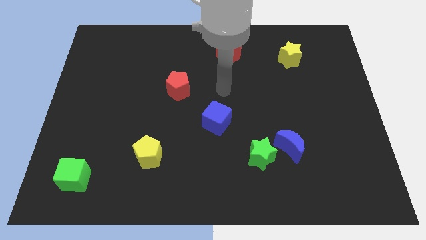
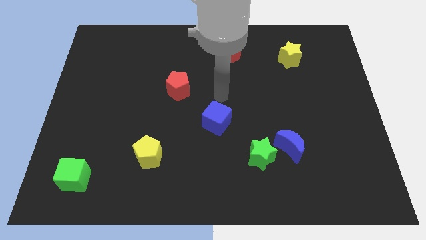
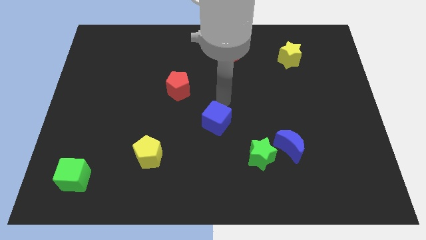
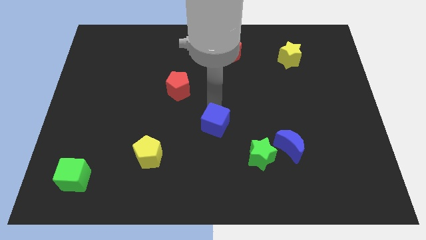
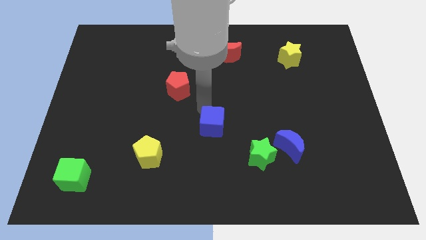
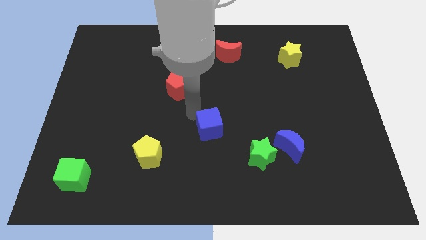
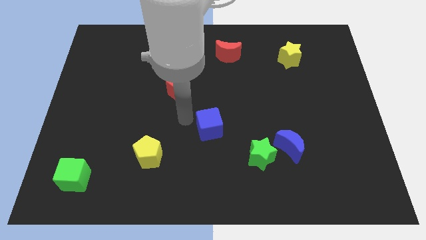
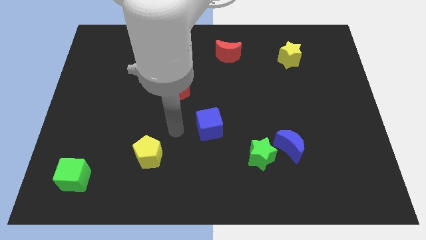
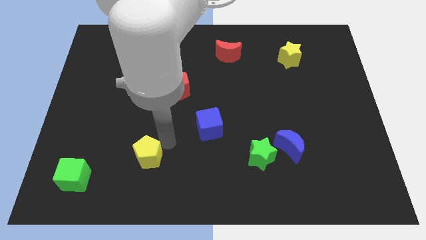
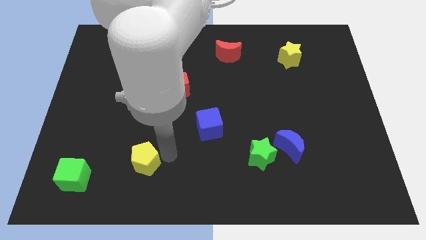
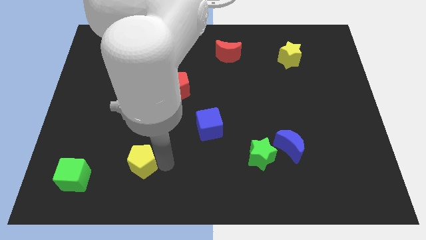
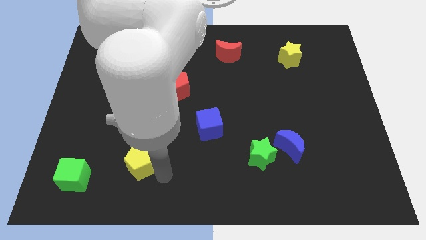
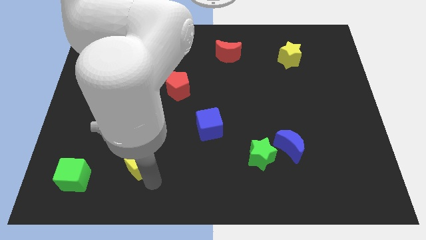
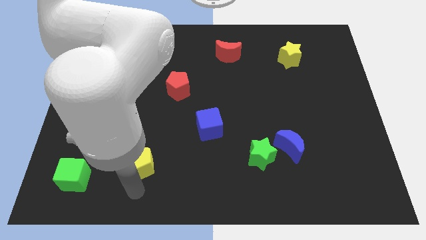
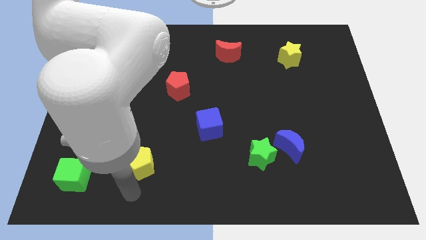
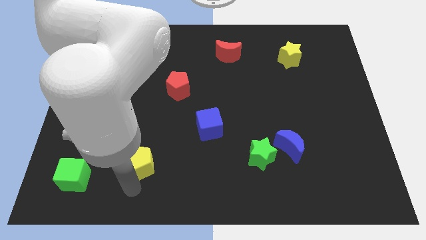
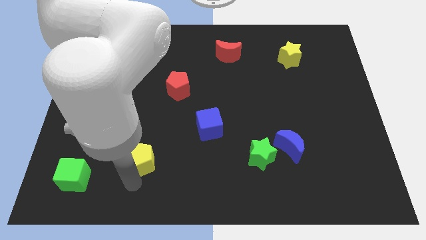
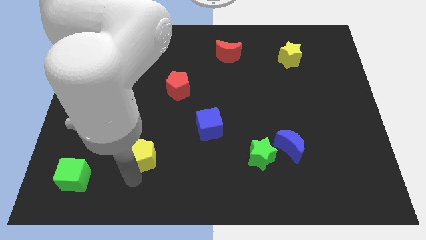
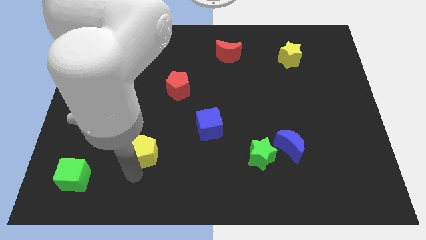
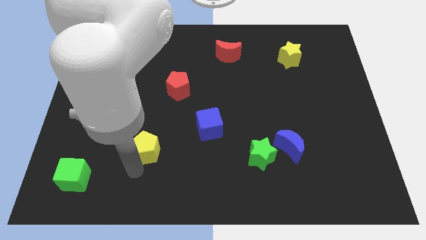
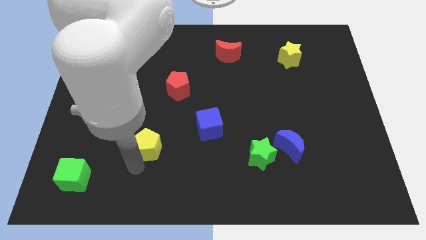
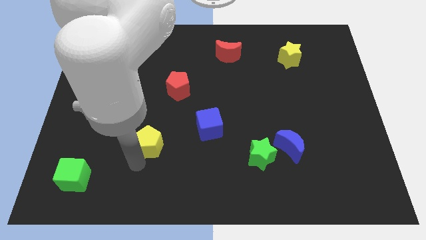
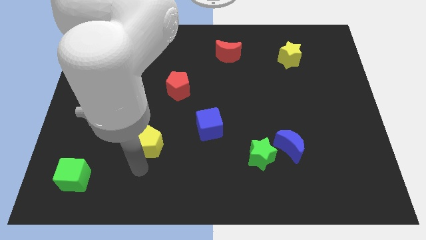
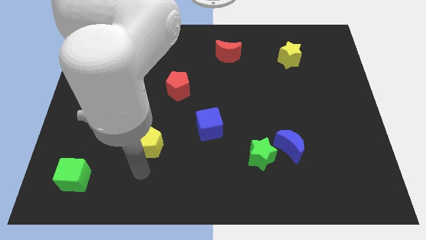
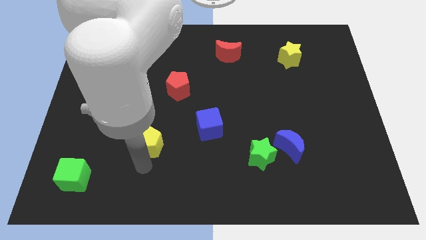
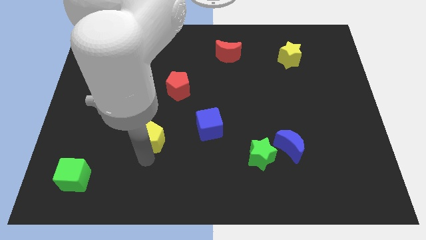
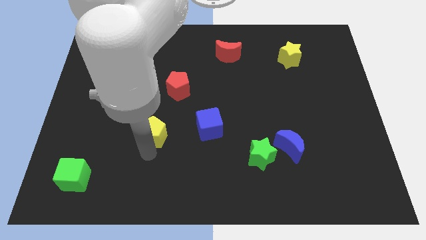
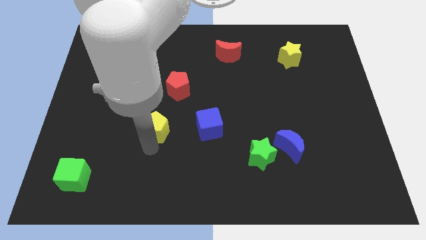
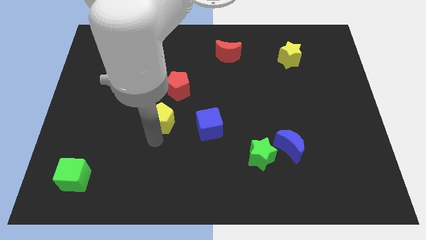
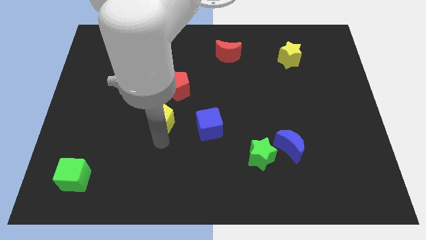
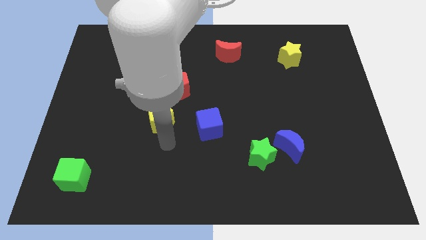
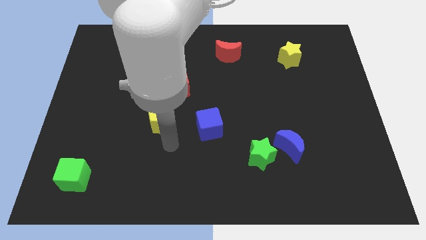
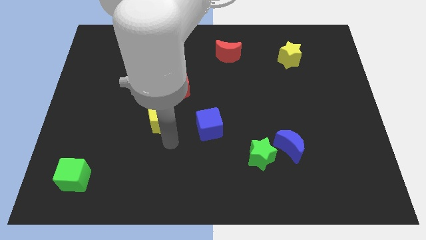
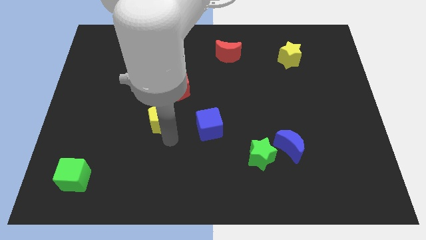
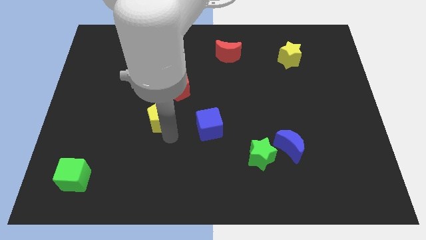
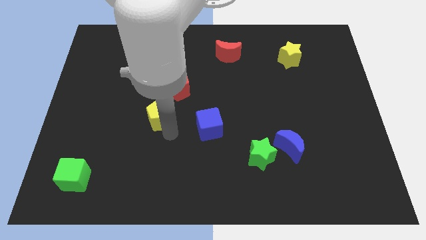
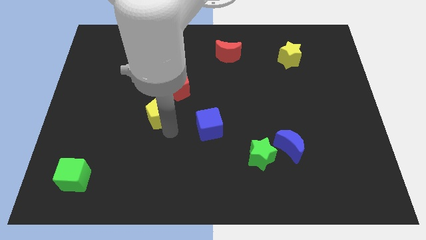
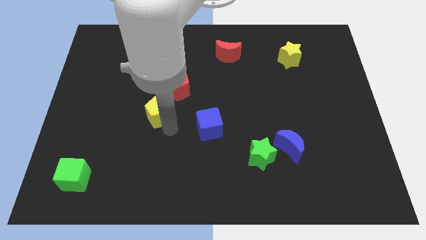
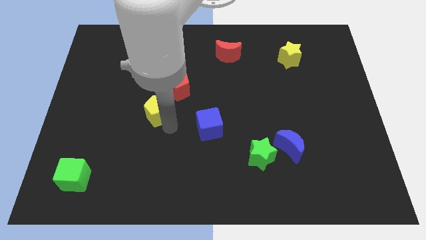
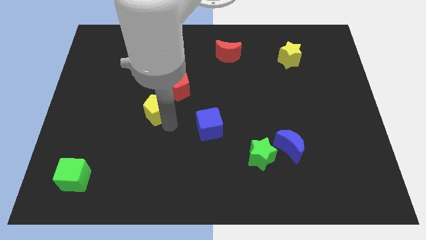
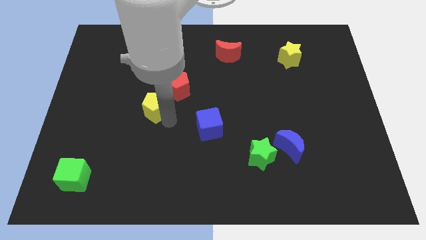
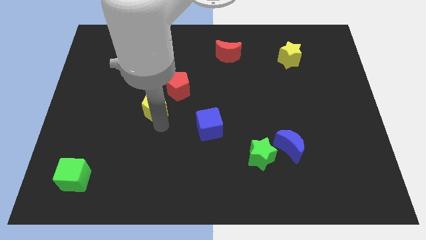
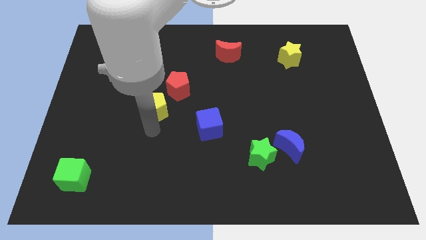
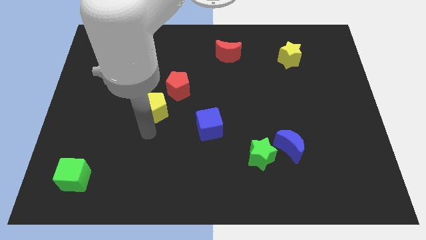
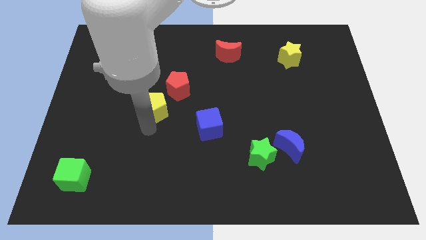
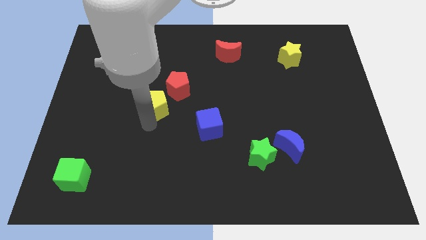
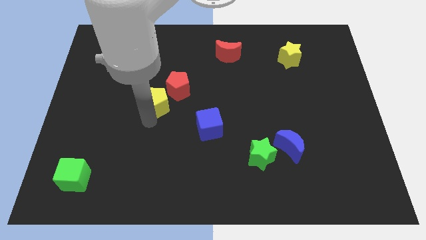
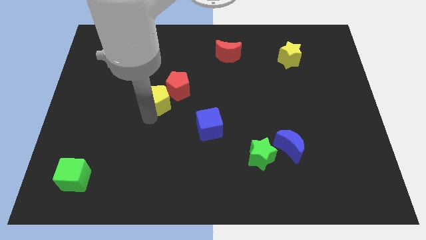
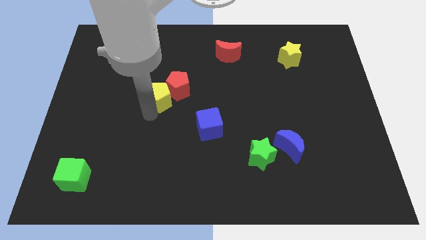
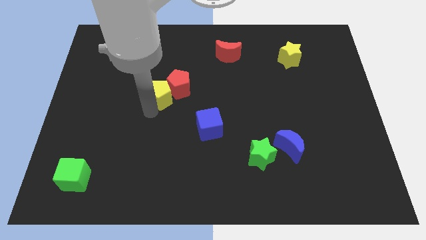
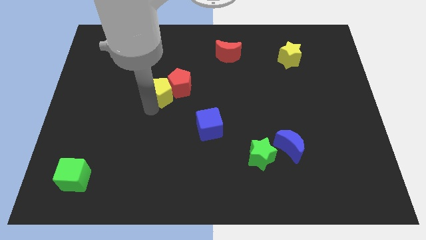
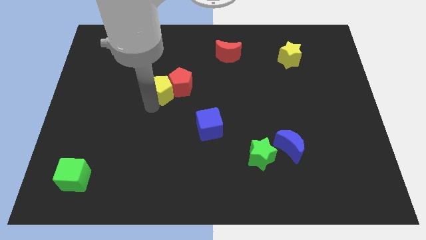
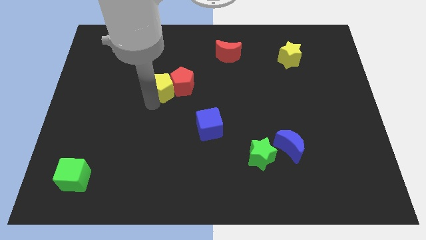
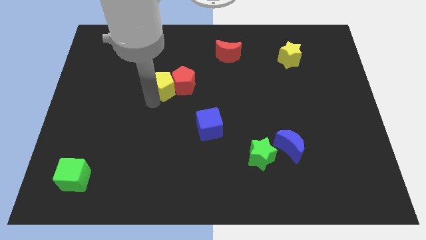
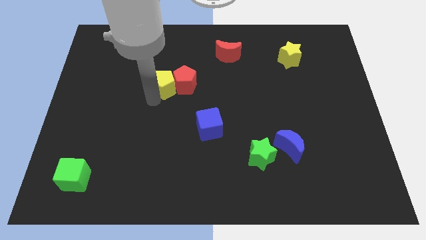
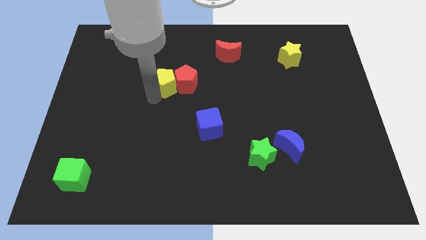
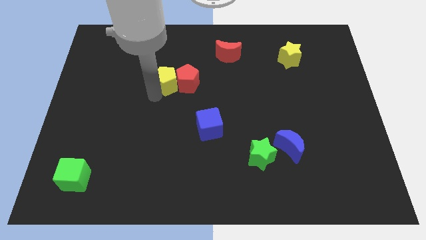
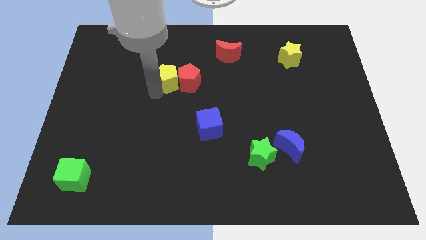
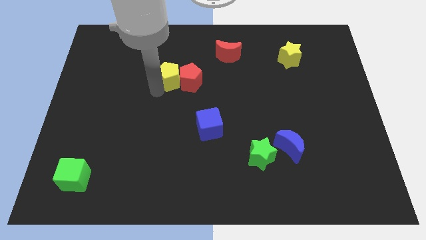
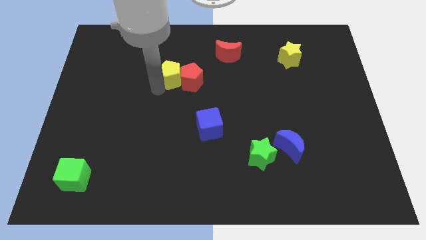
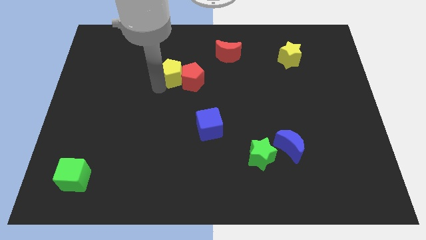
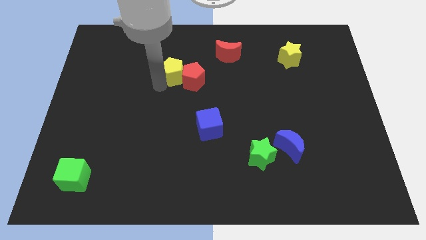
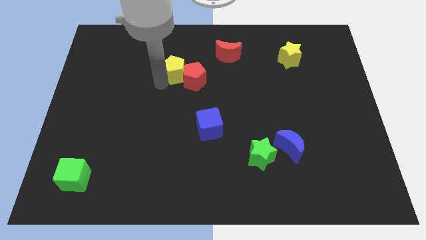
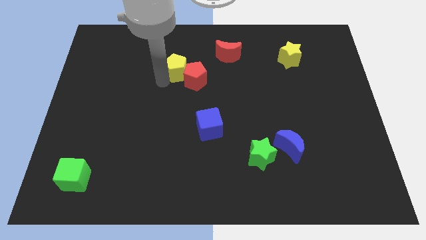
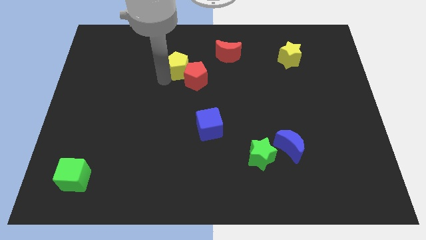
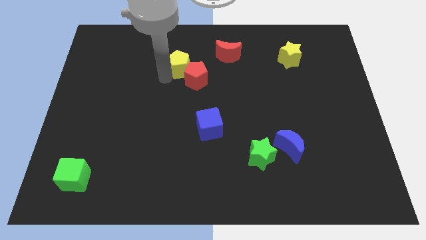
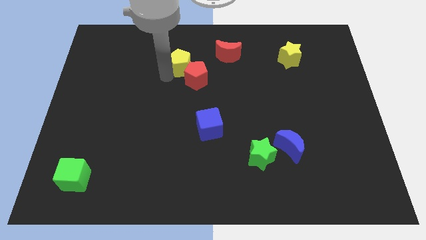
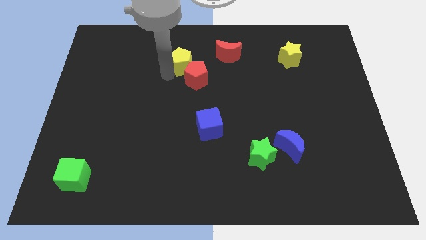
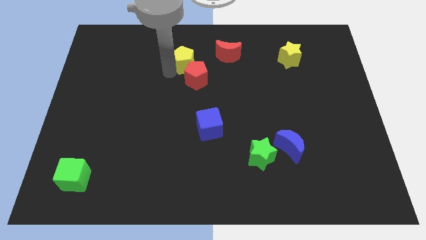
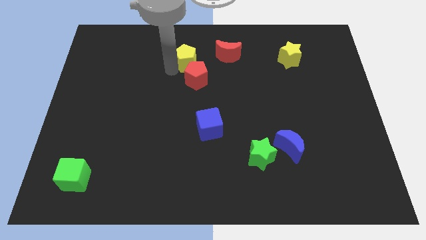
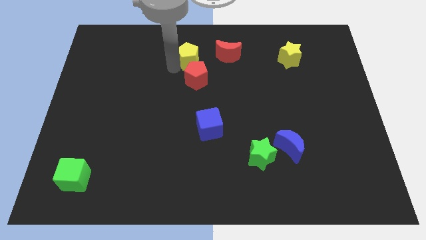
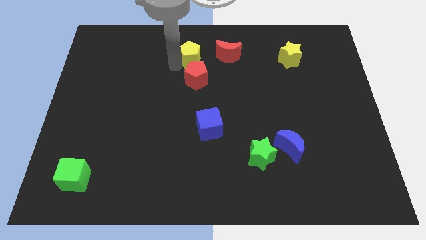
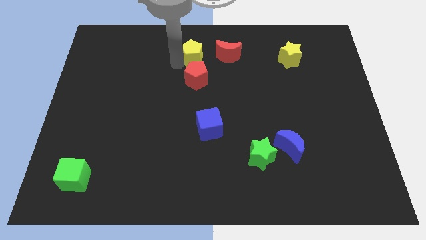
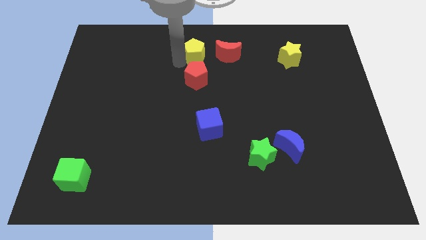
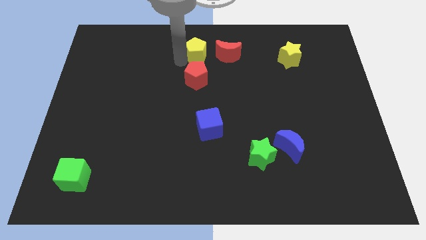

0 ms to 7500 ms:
move the yellow pentagon to the towards your base
